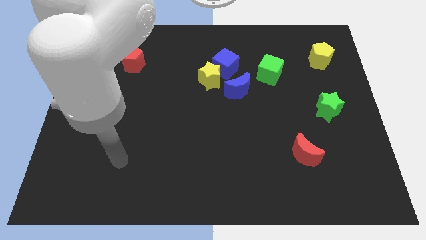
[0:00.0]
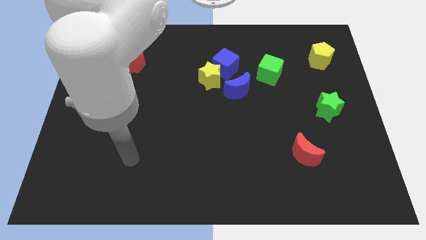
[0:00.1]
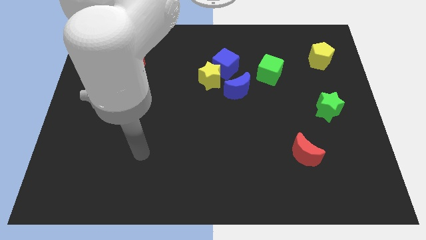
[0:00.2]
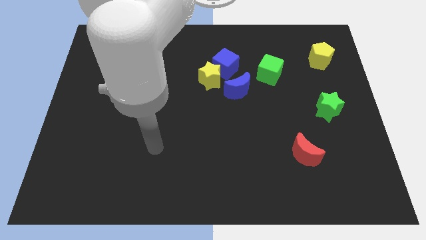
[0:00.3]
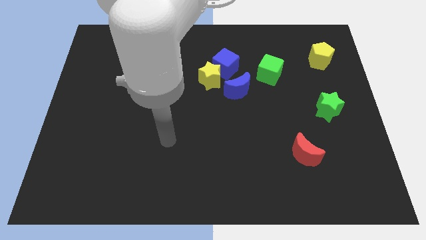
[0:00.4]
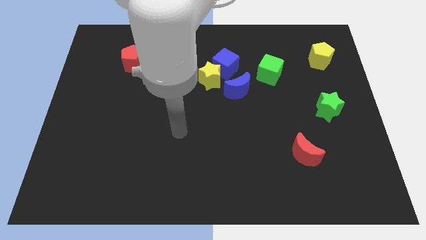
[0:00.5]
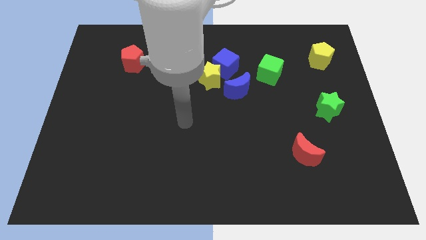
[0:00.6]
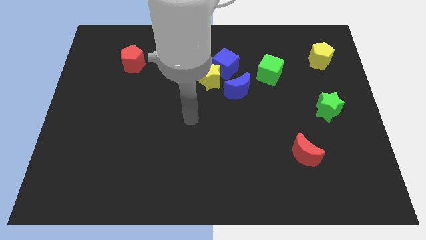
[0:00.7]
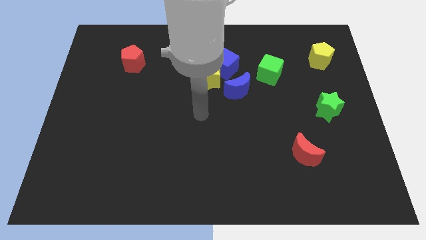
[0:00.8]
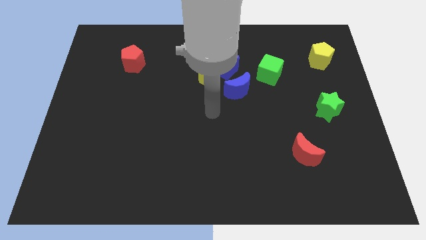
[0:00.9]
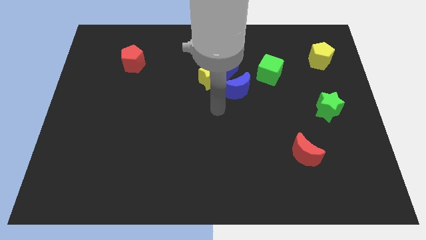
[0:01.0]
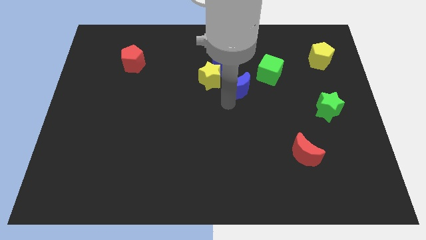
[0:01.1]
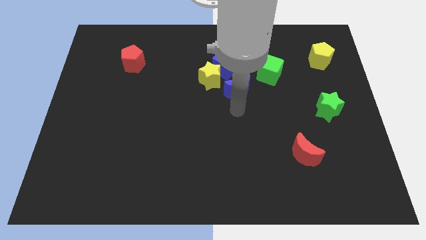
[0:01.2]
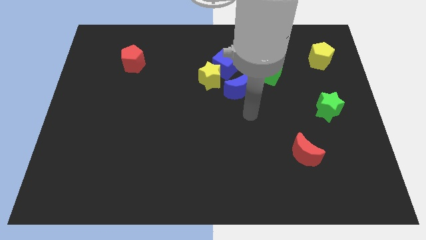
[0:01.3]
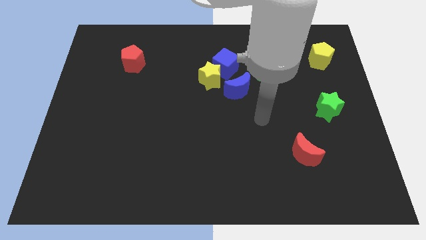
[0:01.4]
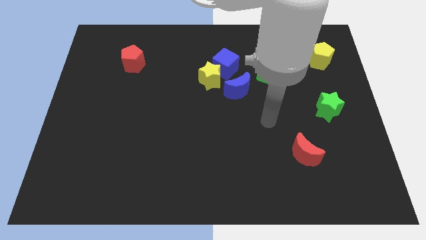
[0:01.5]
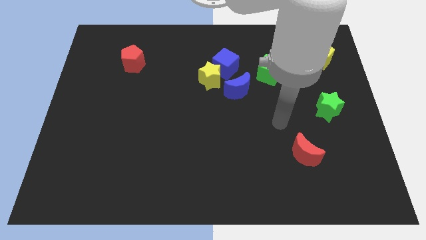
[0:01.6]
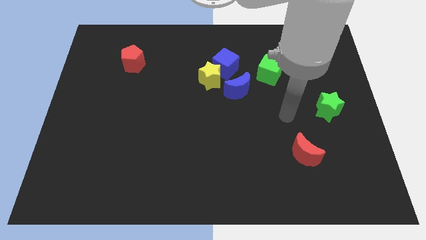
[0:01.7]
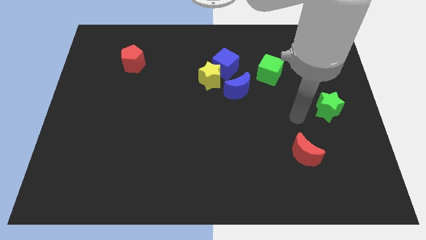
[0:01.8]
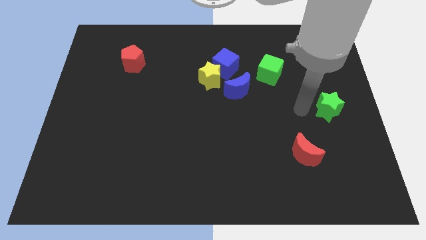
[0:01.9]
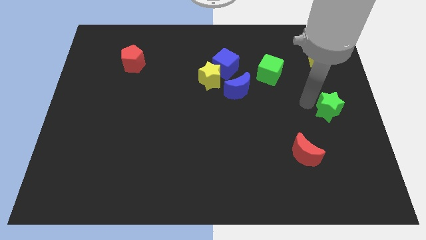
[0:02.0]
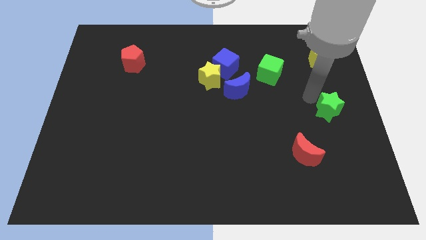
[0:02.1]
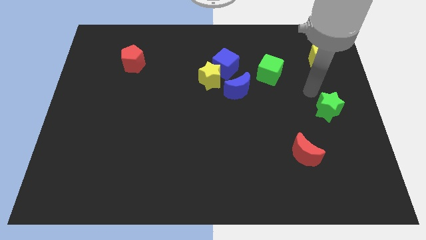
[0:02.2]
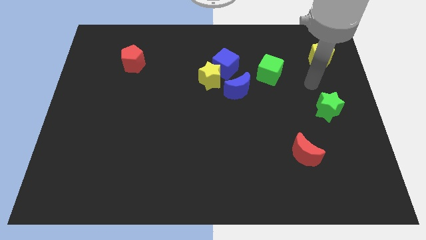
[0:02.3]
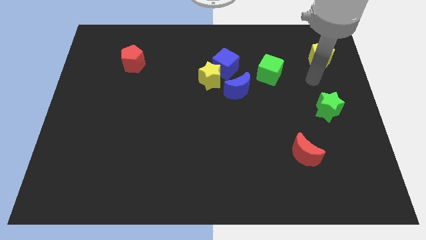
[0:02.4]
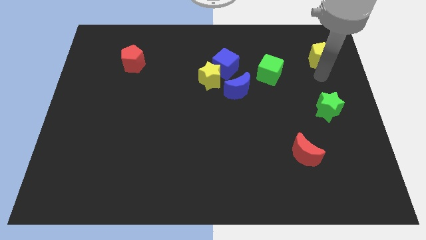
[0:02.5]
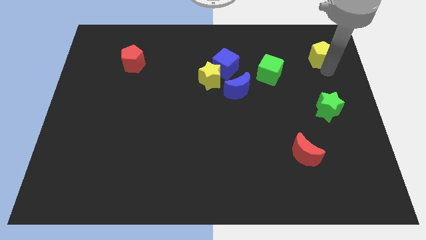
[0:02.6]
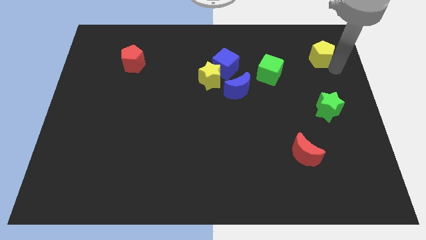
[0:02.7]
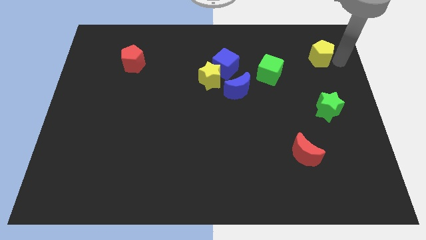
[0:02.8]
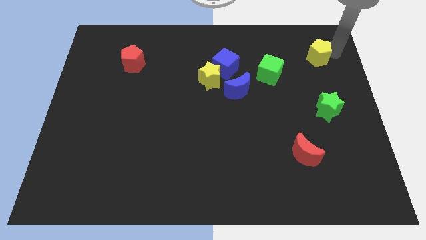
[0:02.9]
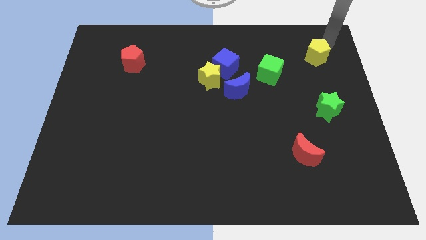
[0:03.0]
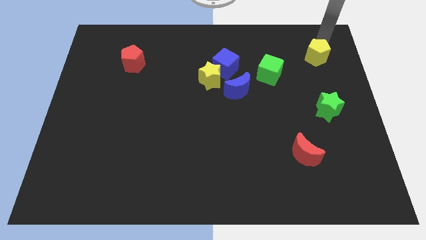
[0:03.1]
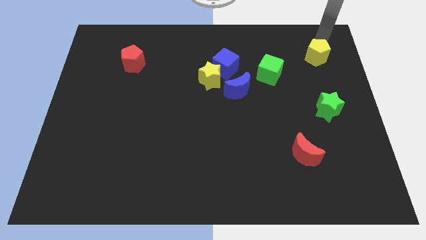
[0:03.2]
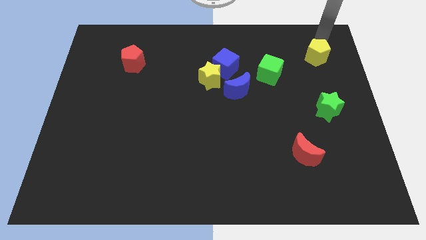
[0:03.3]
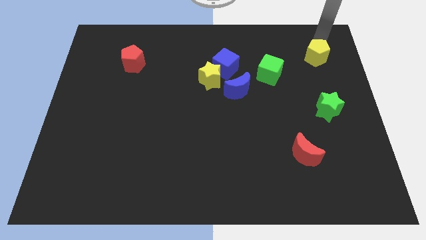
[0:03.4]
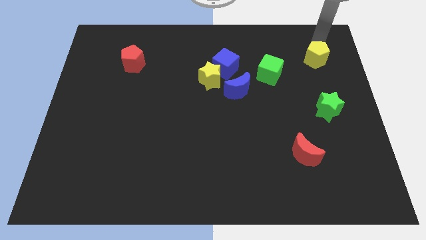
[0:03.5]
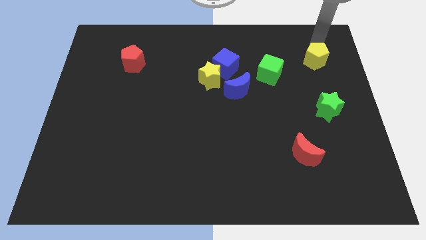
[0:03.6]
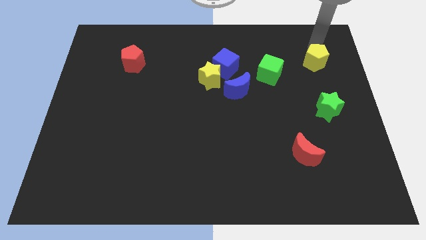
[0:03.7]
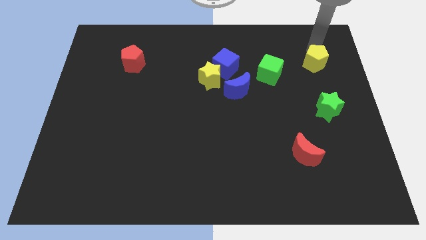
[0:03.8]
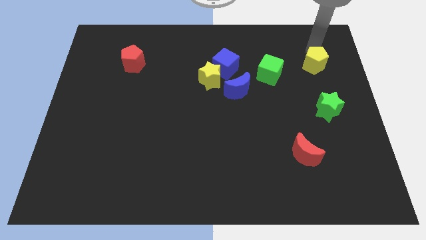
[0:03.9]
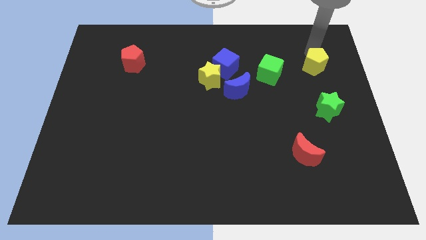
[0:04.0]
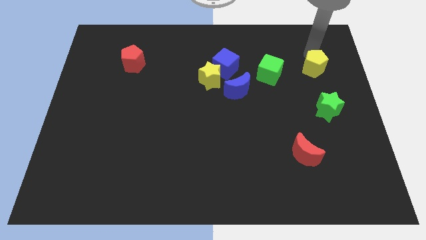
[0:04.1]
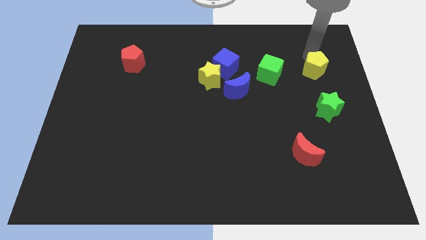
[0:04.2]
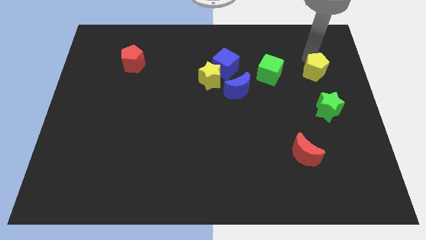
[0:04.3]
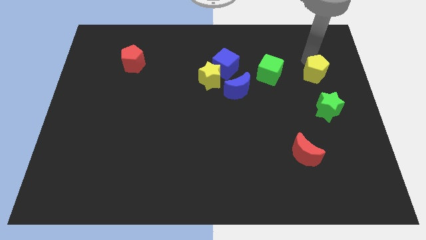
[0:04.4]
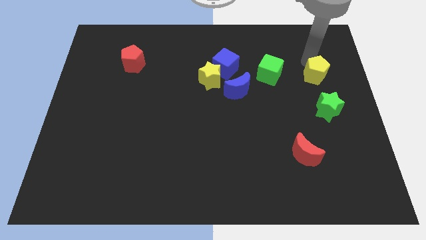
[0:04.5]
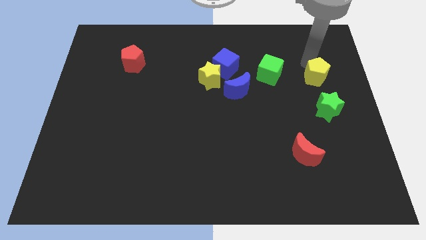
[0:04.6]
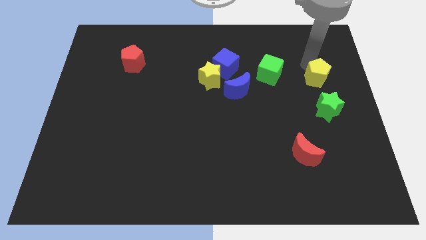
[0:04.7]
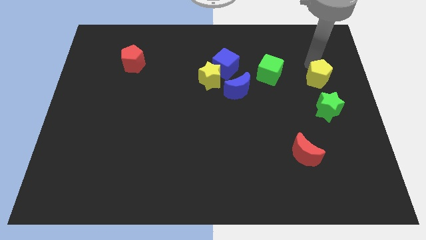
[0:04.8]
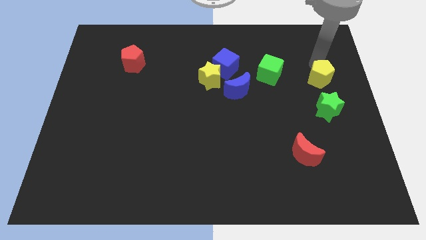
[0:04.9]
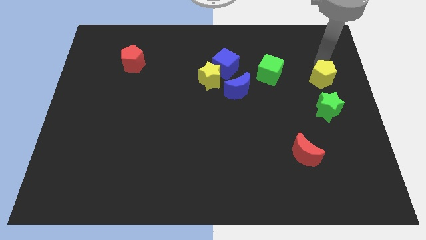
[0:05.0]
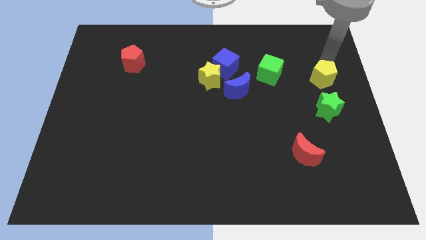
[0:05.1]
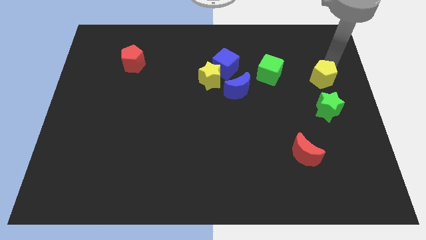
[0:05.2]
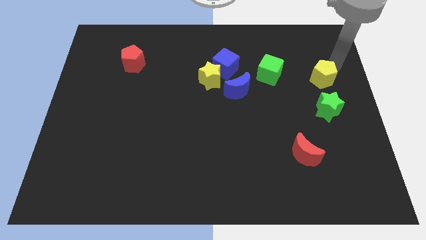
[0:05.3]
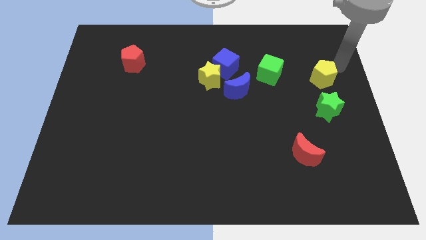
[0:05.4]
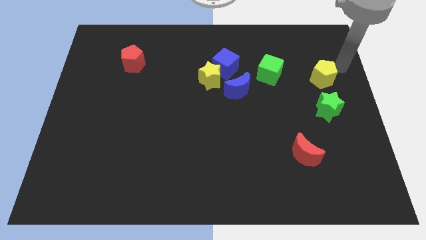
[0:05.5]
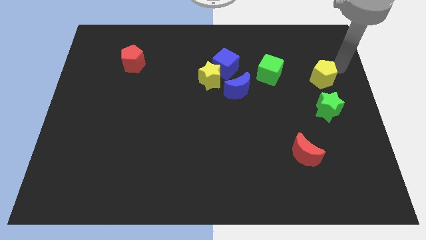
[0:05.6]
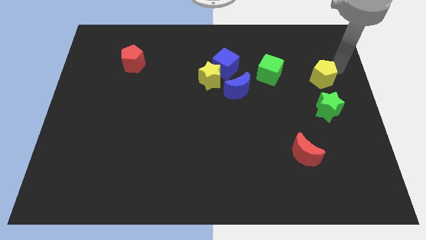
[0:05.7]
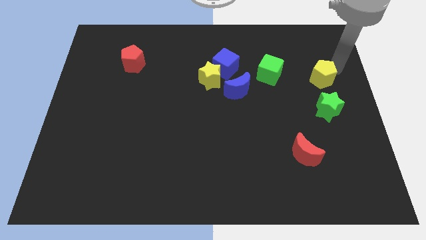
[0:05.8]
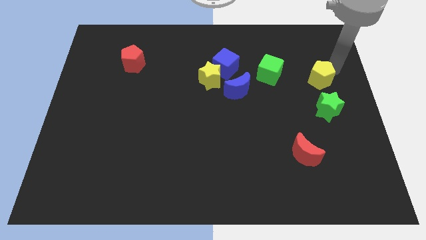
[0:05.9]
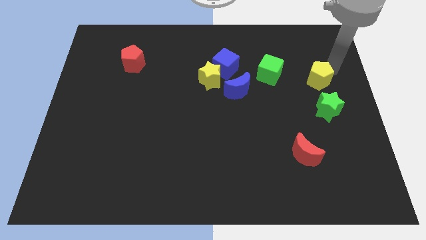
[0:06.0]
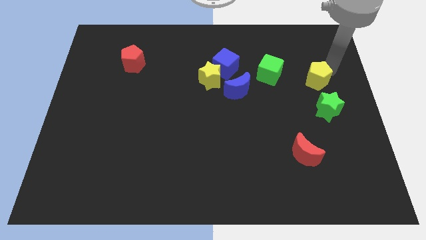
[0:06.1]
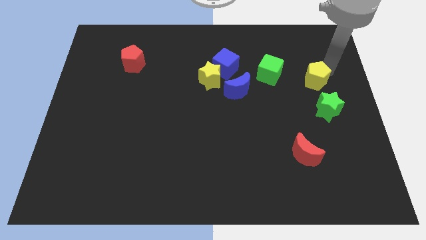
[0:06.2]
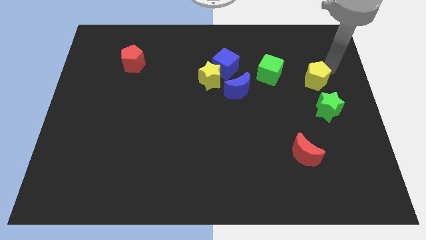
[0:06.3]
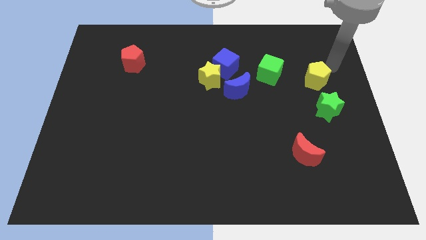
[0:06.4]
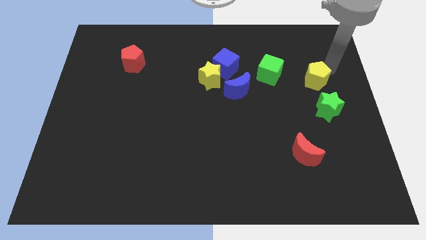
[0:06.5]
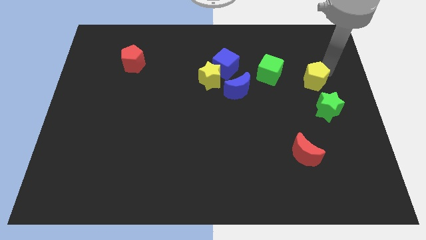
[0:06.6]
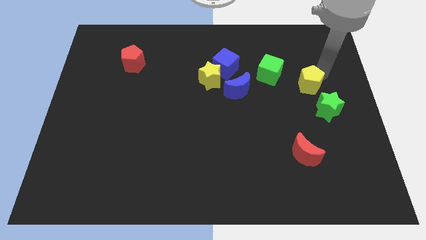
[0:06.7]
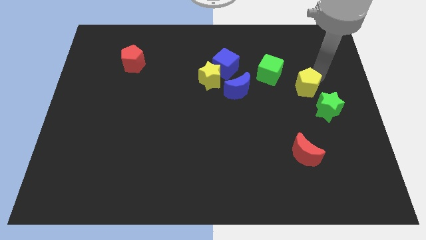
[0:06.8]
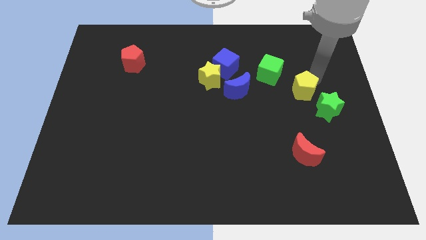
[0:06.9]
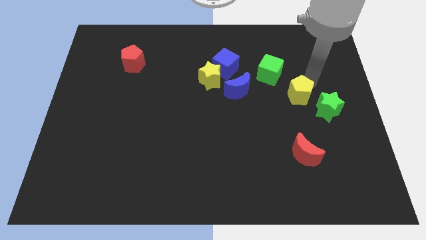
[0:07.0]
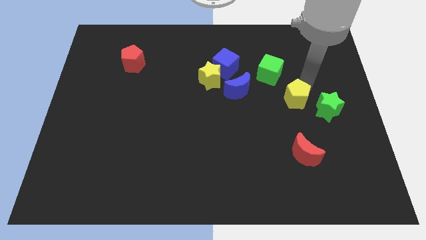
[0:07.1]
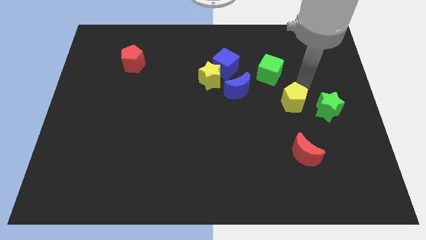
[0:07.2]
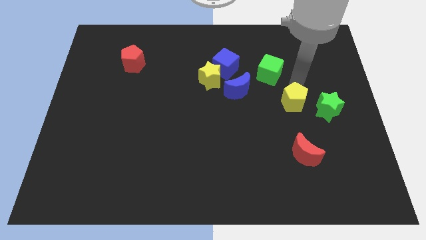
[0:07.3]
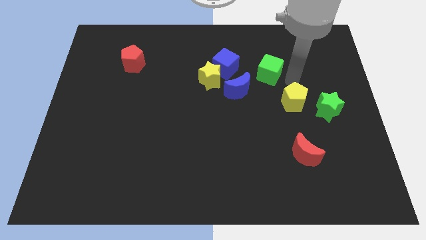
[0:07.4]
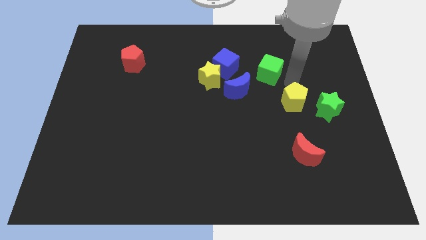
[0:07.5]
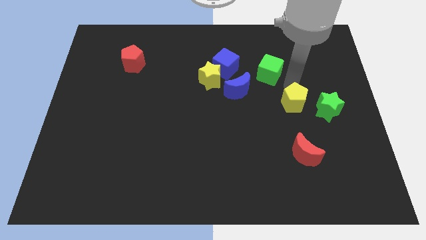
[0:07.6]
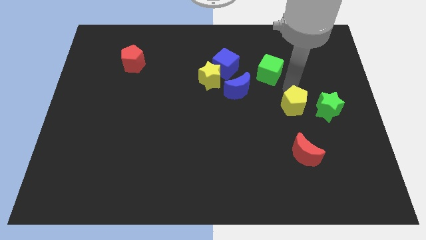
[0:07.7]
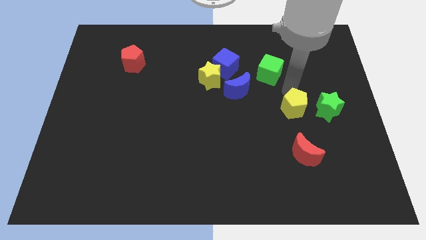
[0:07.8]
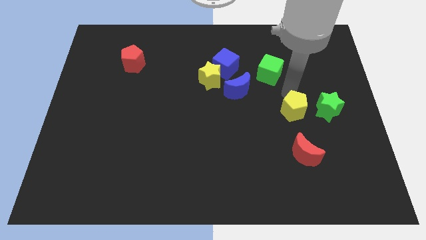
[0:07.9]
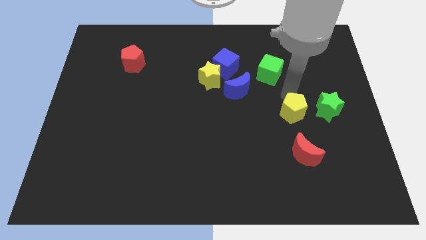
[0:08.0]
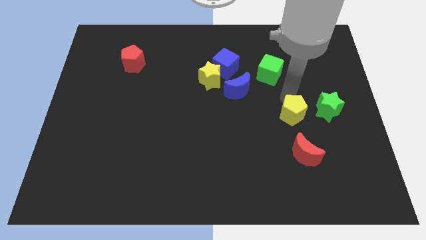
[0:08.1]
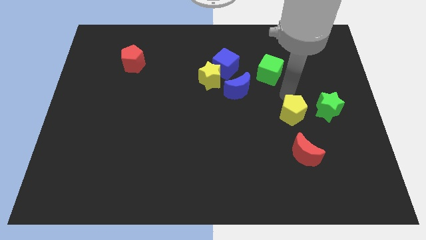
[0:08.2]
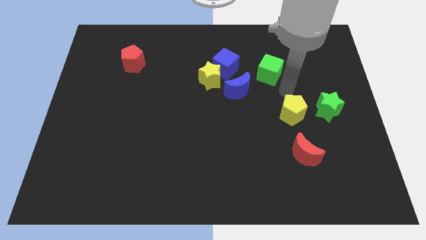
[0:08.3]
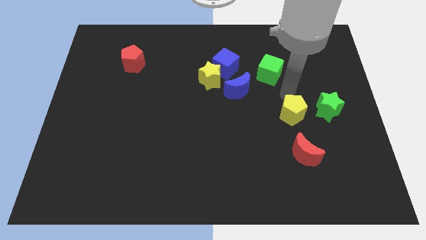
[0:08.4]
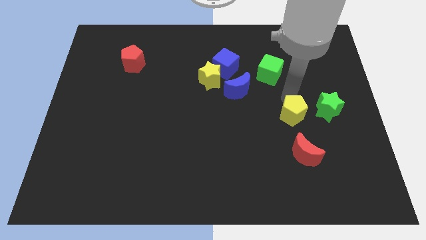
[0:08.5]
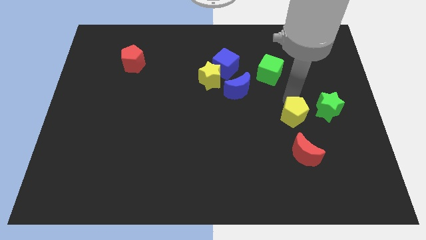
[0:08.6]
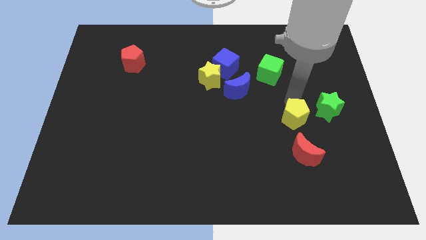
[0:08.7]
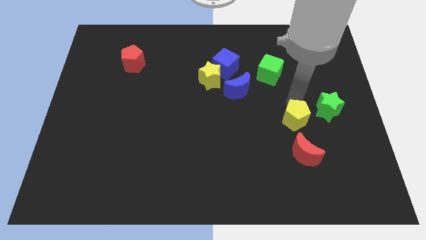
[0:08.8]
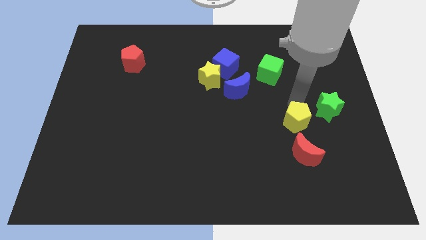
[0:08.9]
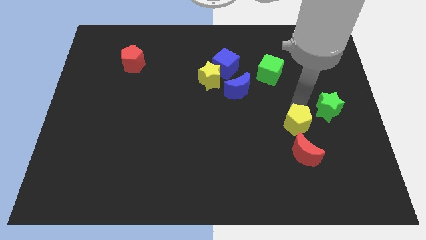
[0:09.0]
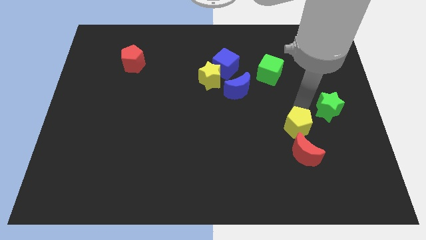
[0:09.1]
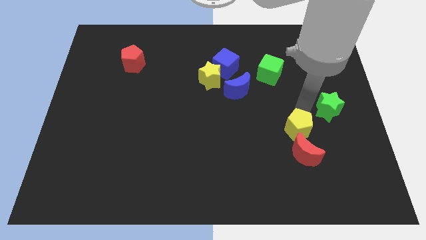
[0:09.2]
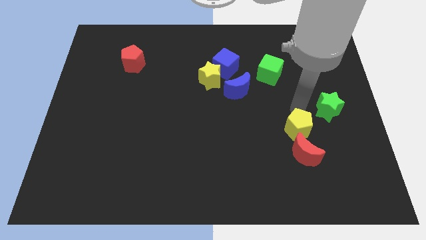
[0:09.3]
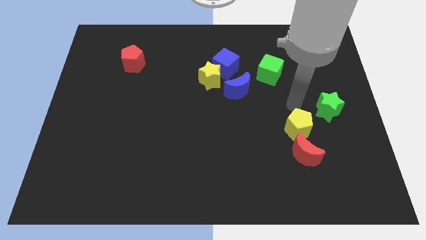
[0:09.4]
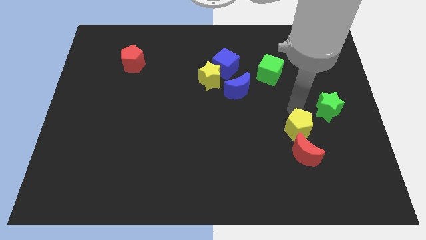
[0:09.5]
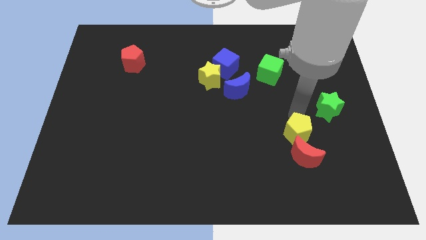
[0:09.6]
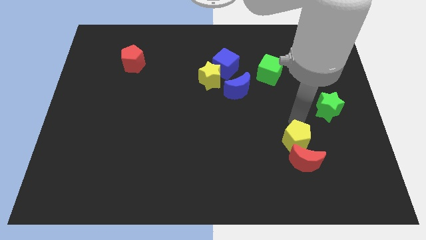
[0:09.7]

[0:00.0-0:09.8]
push the yellow pentagon towards the red moon
